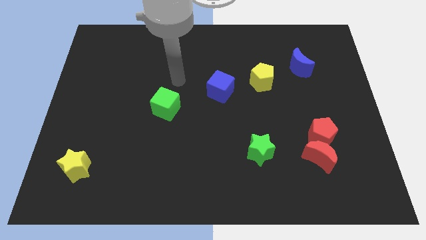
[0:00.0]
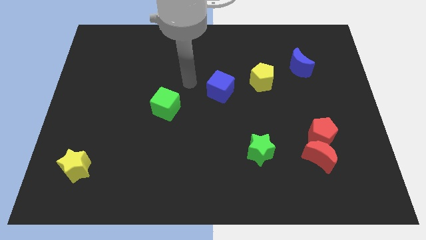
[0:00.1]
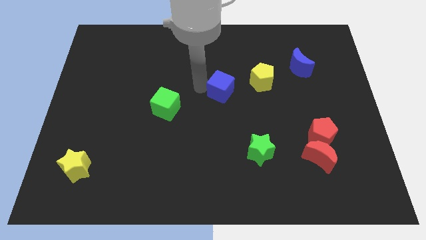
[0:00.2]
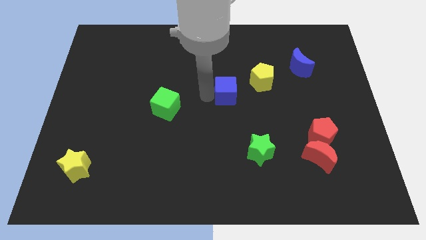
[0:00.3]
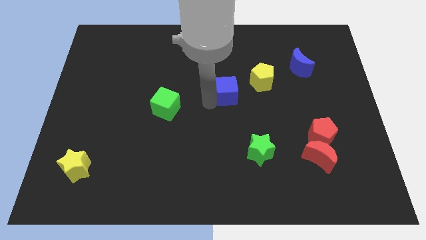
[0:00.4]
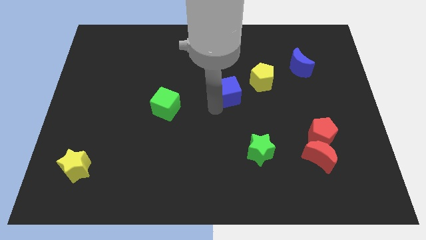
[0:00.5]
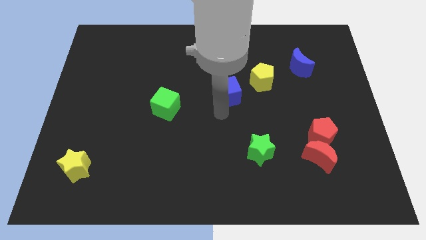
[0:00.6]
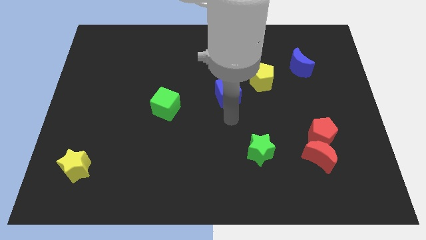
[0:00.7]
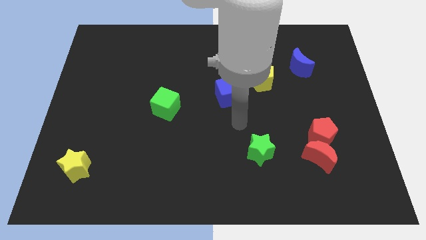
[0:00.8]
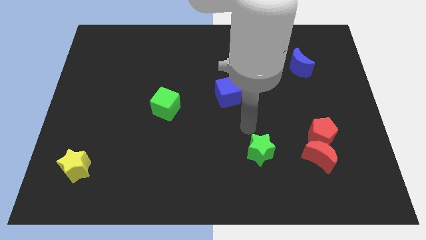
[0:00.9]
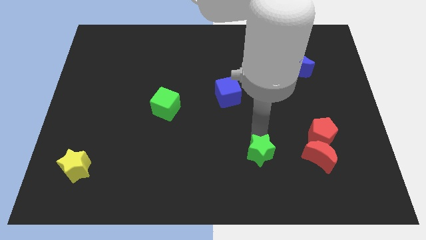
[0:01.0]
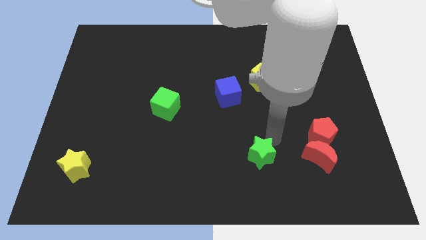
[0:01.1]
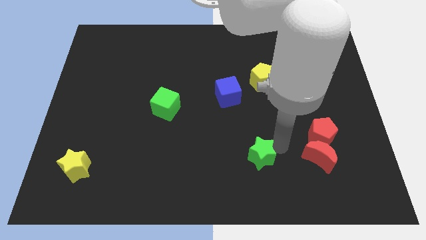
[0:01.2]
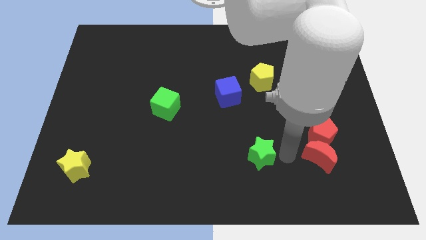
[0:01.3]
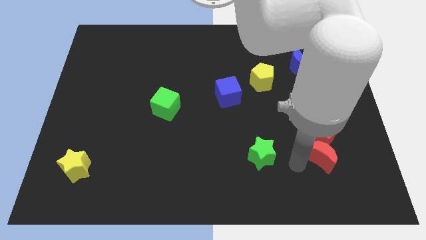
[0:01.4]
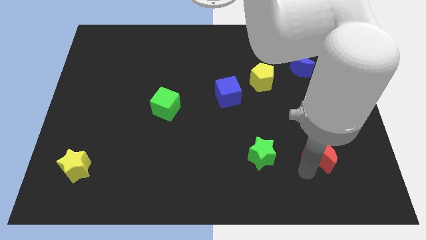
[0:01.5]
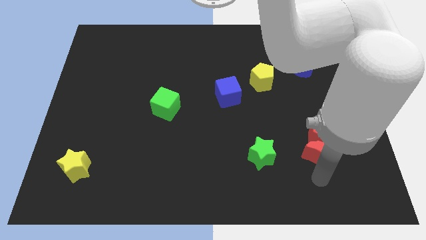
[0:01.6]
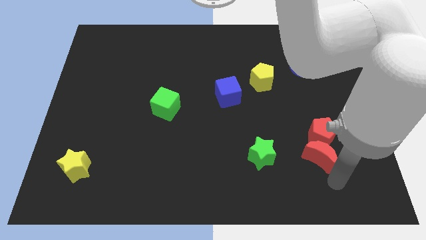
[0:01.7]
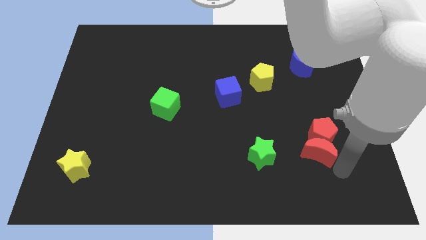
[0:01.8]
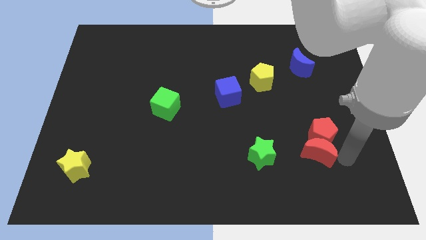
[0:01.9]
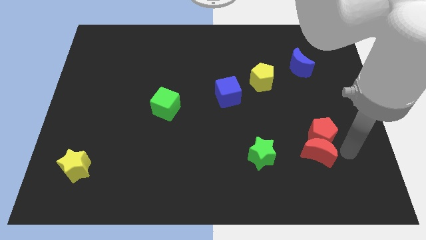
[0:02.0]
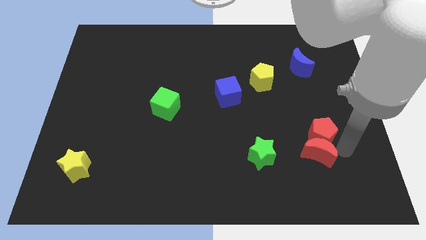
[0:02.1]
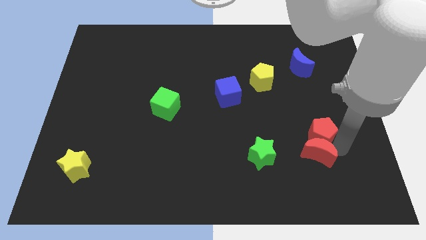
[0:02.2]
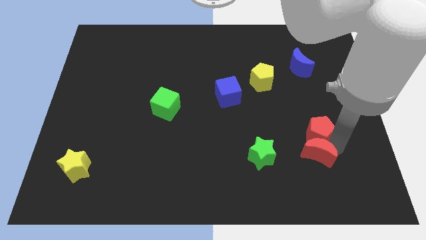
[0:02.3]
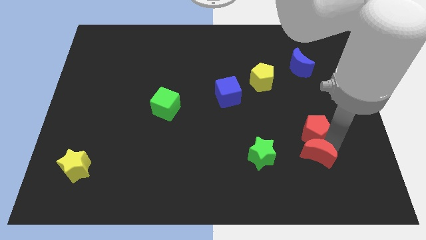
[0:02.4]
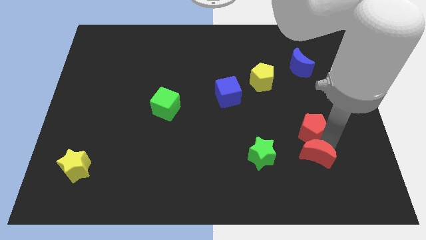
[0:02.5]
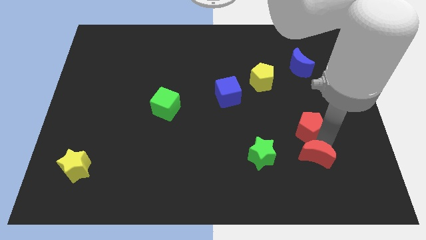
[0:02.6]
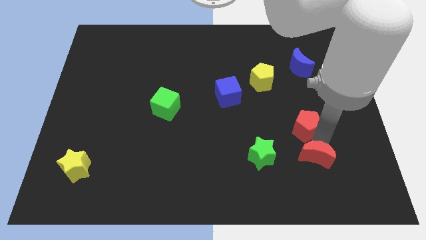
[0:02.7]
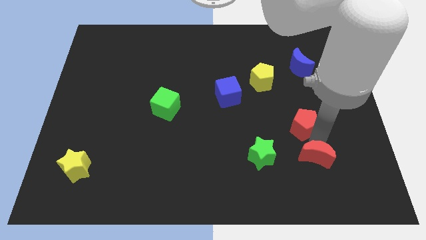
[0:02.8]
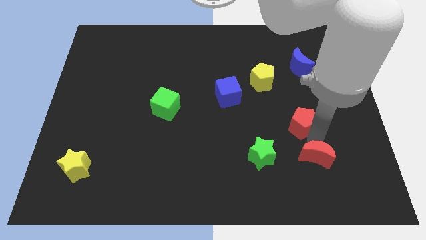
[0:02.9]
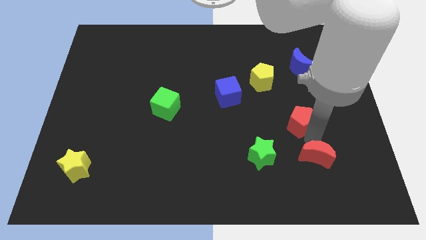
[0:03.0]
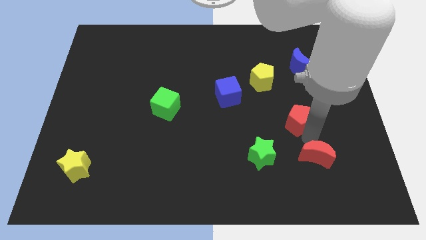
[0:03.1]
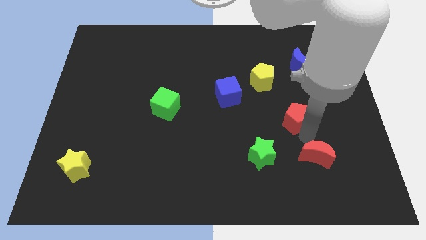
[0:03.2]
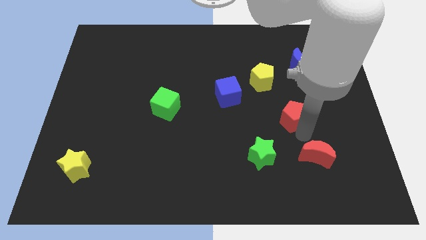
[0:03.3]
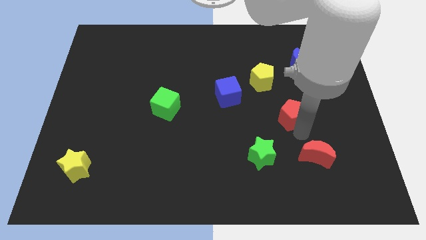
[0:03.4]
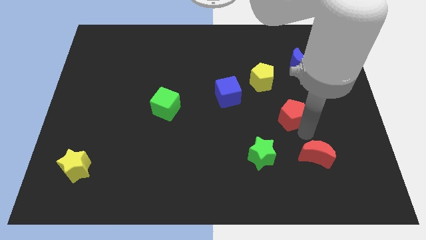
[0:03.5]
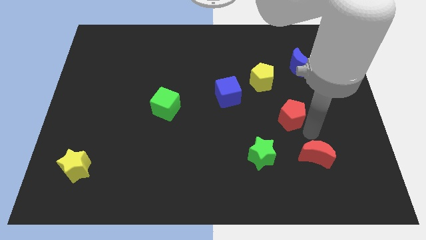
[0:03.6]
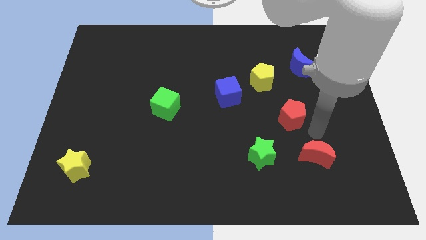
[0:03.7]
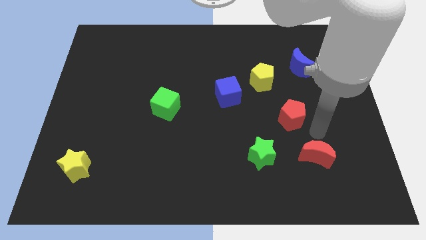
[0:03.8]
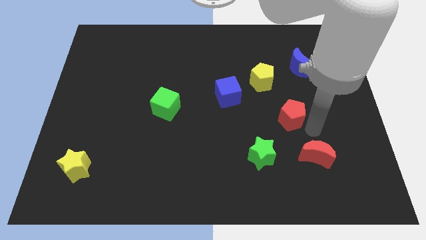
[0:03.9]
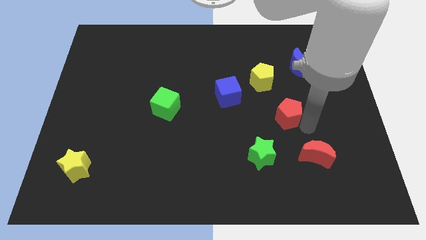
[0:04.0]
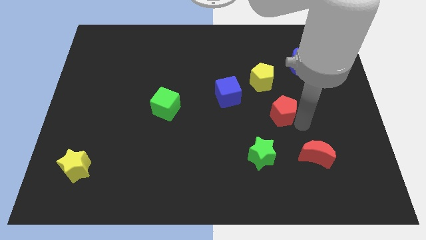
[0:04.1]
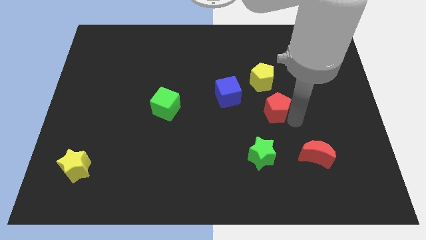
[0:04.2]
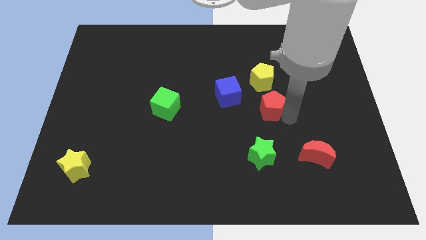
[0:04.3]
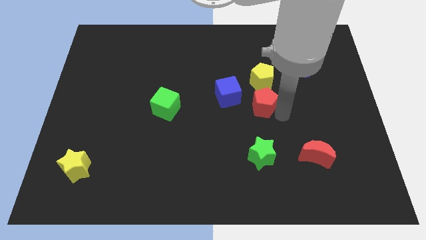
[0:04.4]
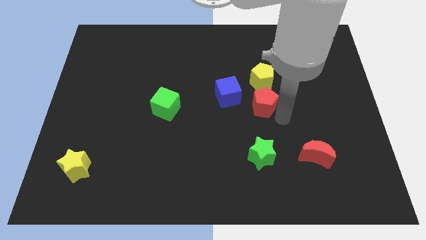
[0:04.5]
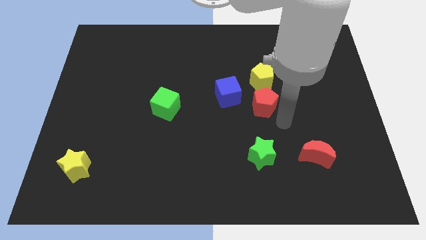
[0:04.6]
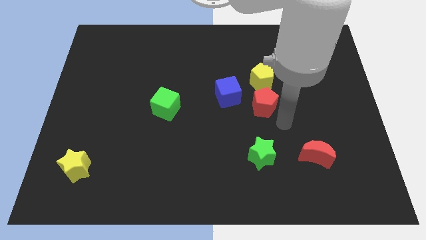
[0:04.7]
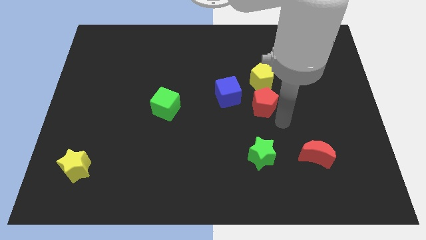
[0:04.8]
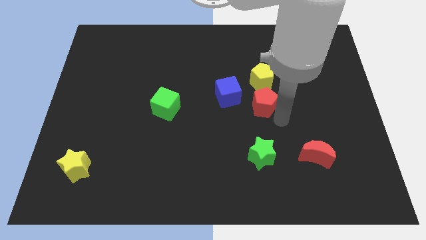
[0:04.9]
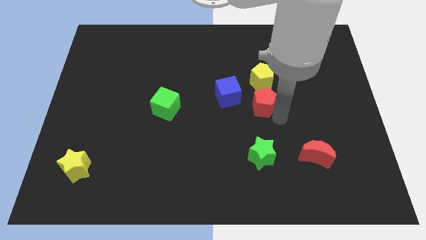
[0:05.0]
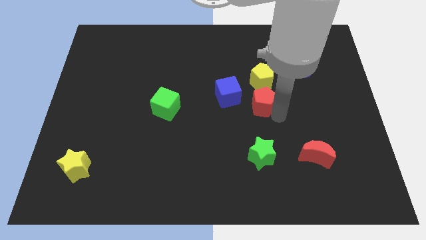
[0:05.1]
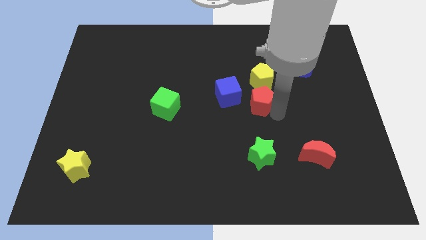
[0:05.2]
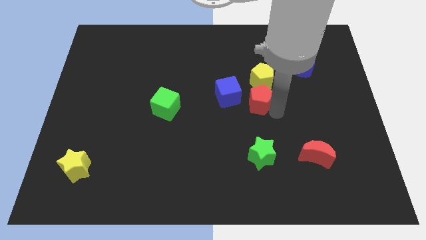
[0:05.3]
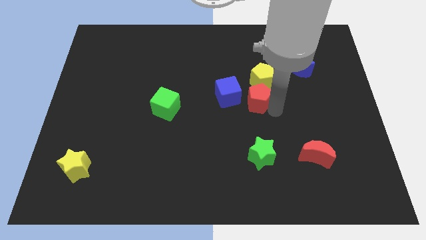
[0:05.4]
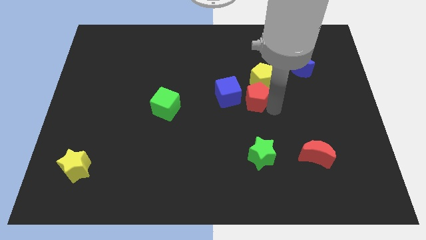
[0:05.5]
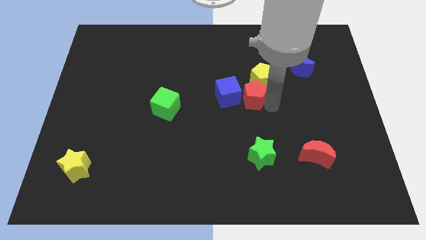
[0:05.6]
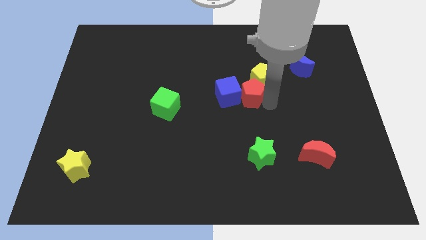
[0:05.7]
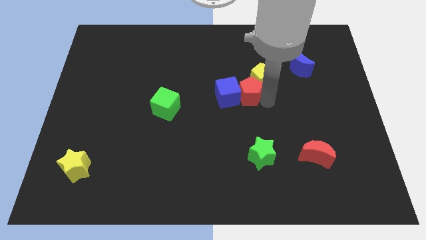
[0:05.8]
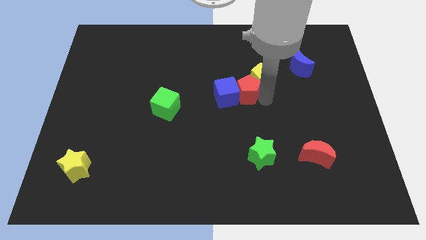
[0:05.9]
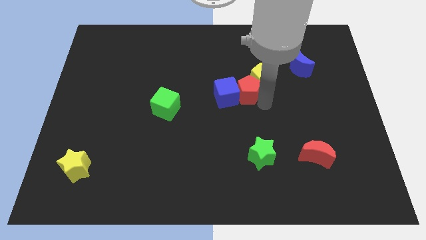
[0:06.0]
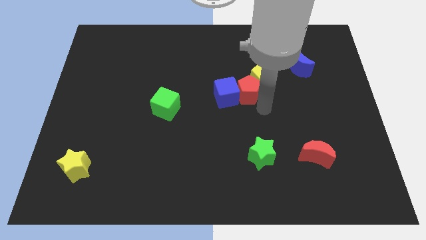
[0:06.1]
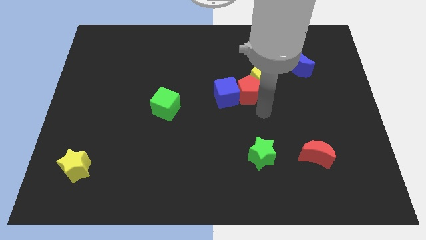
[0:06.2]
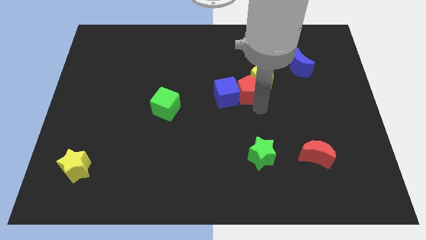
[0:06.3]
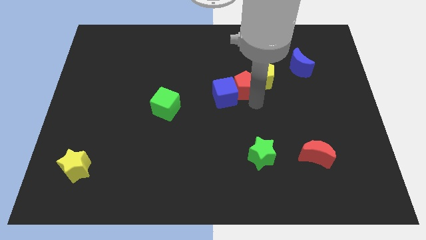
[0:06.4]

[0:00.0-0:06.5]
move the red pentagon upwards and then to the left

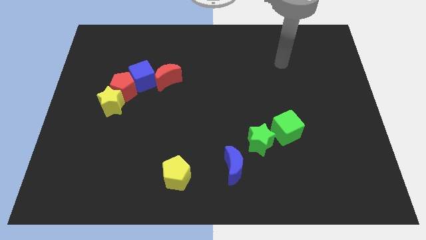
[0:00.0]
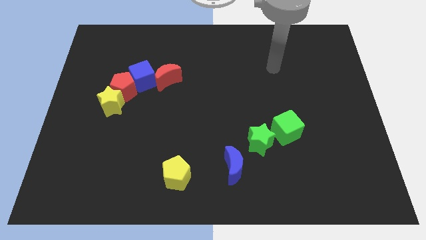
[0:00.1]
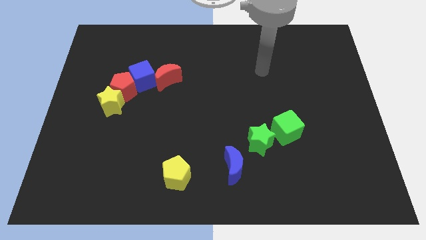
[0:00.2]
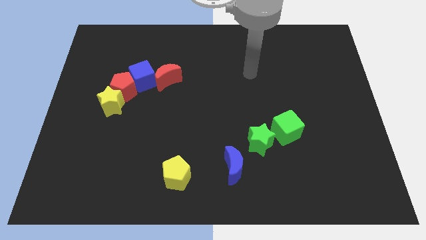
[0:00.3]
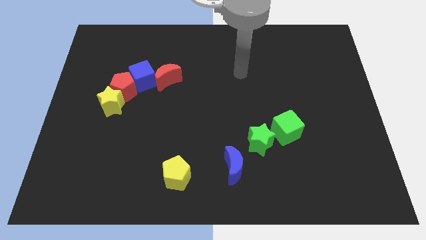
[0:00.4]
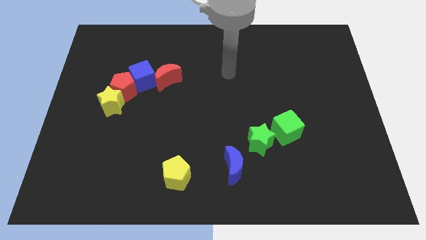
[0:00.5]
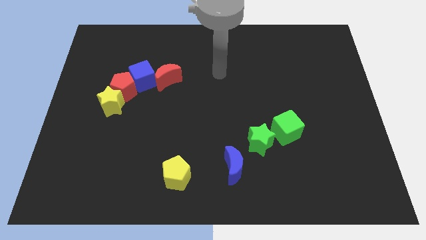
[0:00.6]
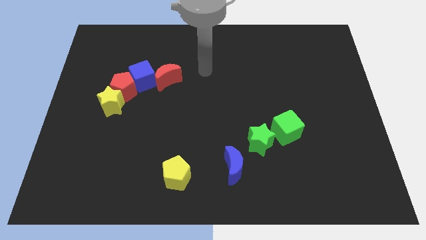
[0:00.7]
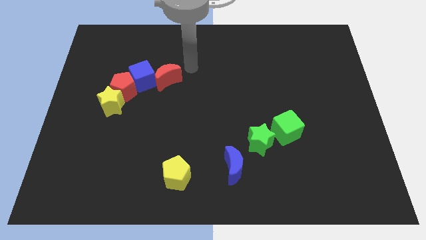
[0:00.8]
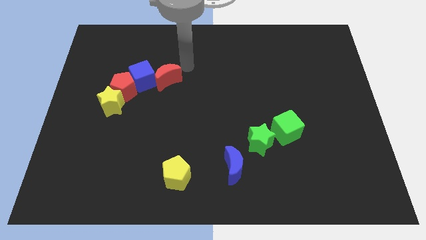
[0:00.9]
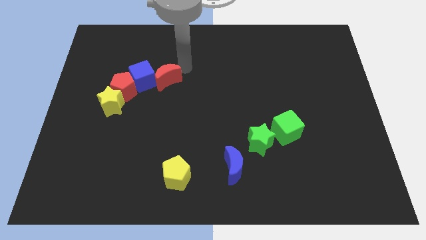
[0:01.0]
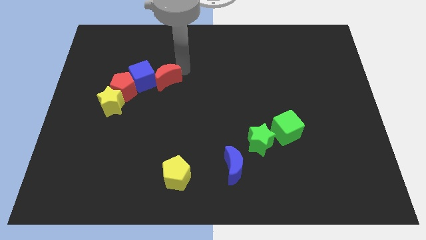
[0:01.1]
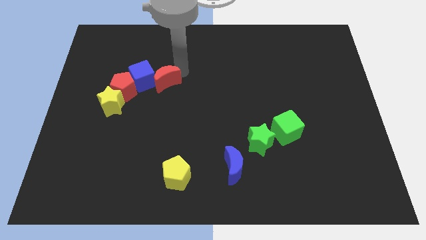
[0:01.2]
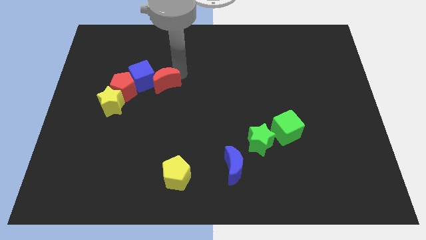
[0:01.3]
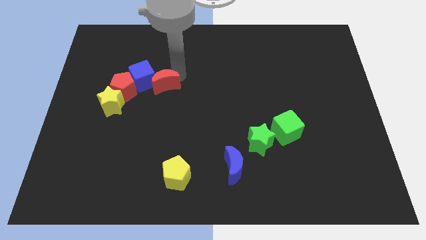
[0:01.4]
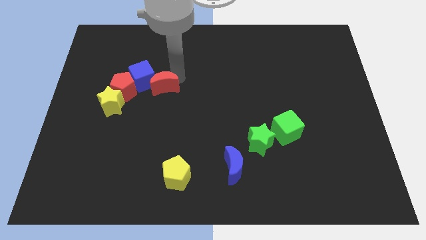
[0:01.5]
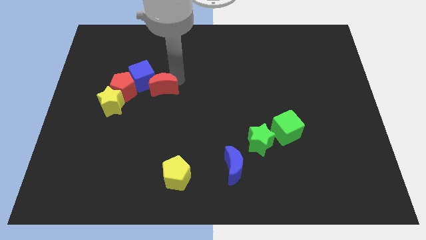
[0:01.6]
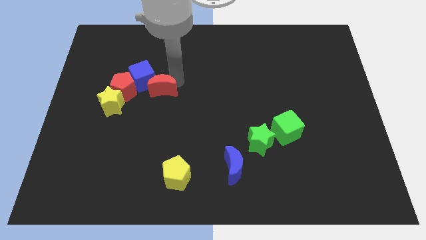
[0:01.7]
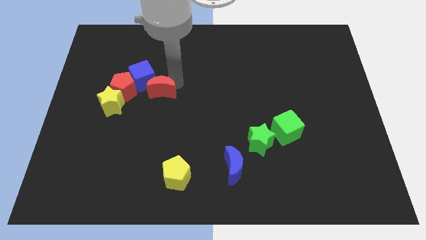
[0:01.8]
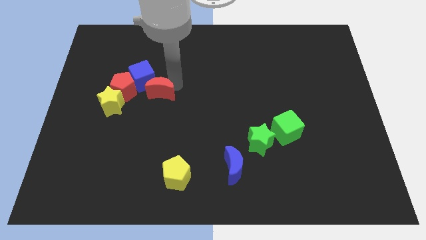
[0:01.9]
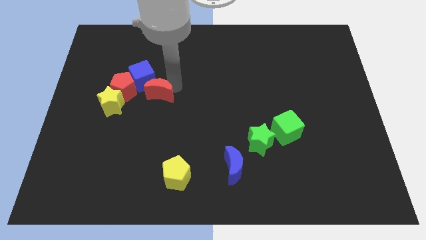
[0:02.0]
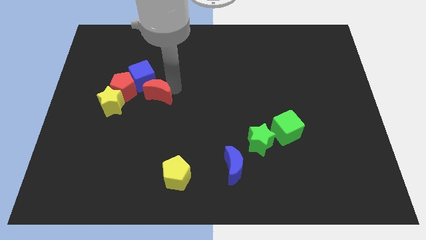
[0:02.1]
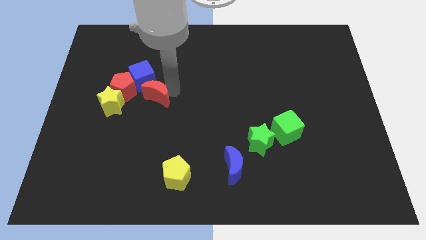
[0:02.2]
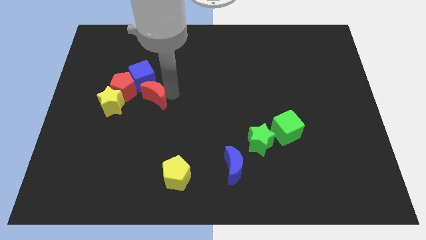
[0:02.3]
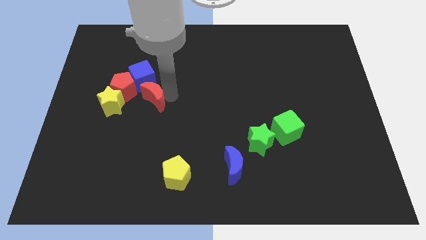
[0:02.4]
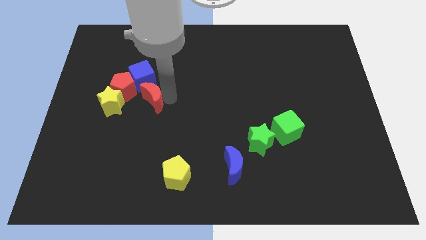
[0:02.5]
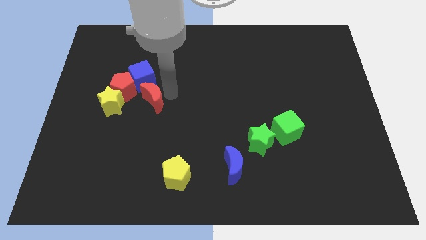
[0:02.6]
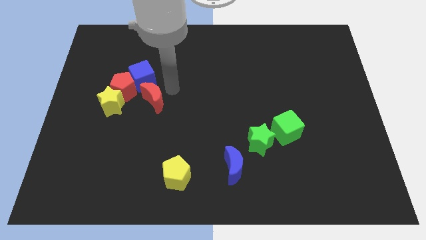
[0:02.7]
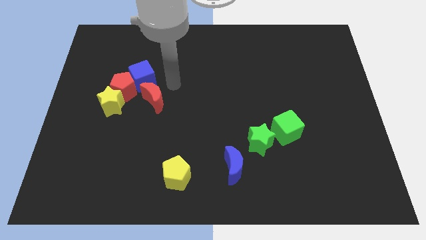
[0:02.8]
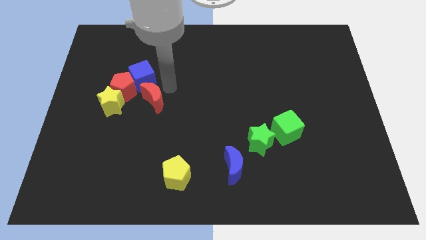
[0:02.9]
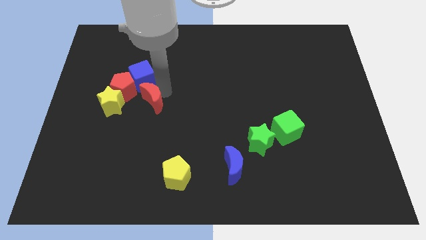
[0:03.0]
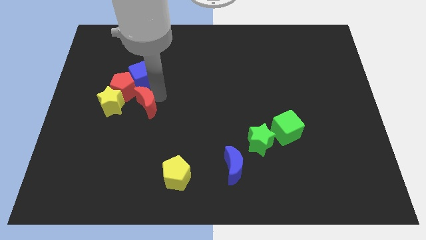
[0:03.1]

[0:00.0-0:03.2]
slide the red moon a little downwards and left
